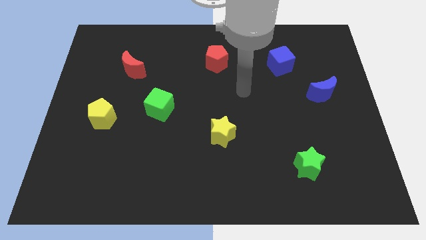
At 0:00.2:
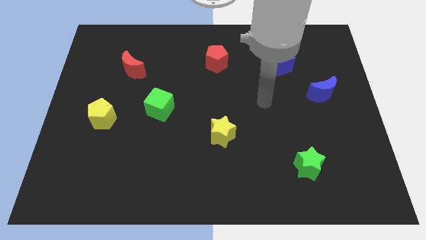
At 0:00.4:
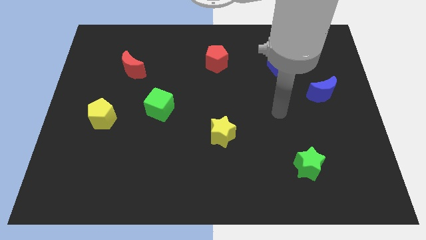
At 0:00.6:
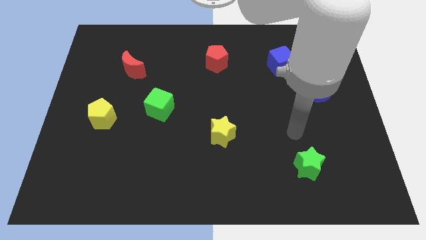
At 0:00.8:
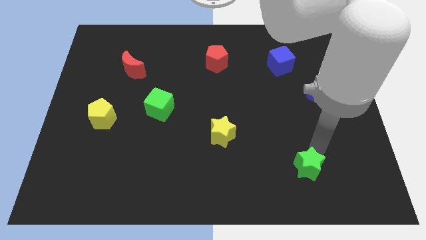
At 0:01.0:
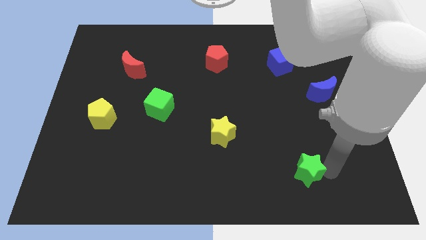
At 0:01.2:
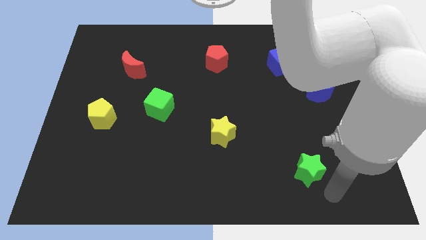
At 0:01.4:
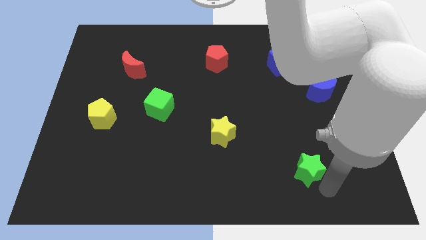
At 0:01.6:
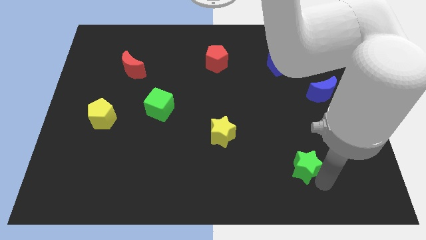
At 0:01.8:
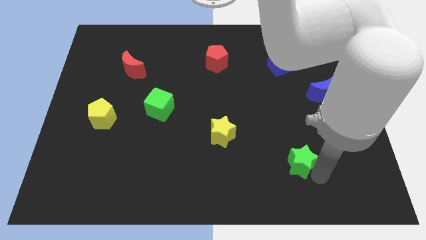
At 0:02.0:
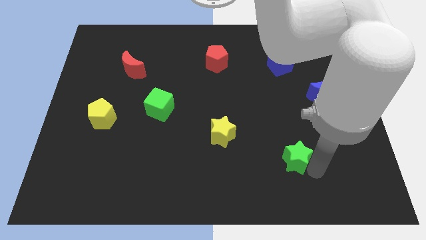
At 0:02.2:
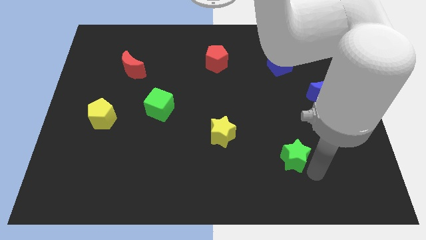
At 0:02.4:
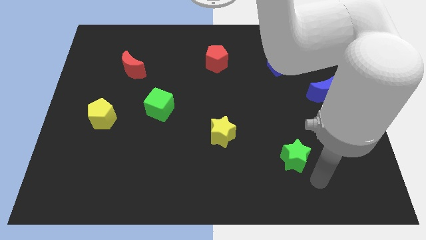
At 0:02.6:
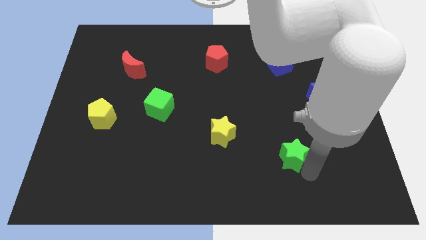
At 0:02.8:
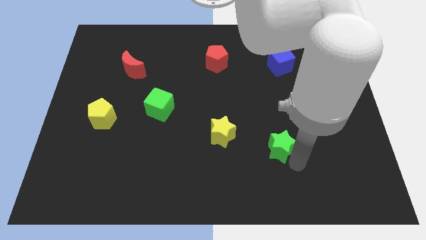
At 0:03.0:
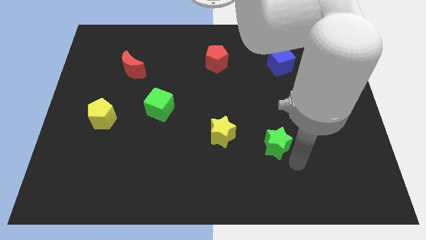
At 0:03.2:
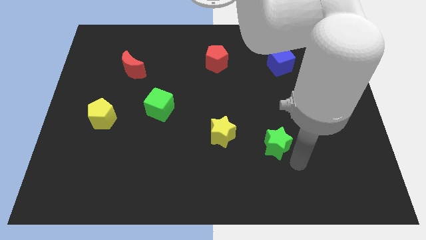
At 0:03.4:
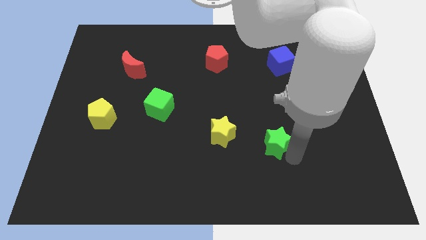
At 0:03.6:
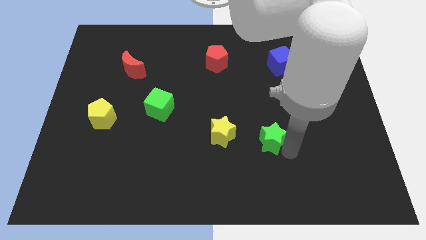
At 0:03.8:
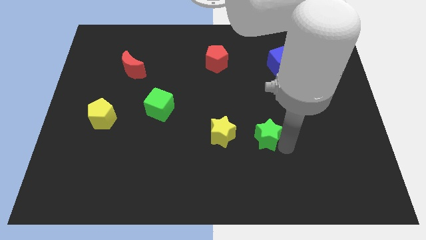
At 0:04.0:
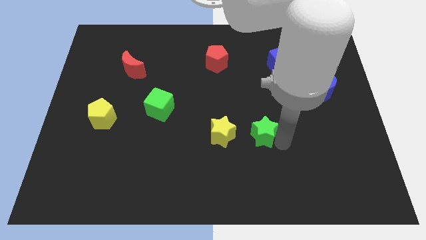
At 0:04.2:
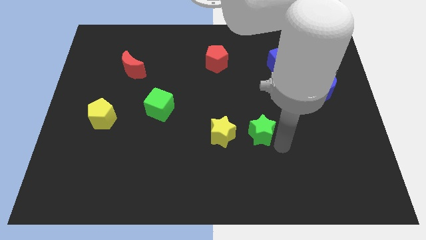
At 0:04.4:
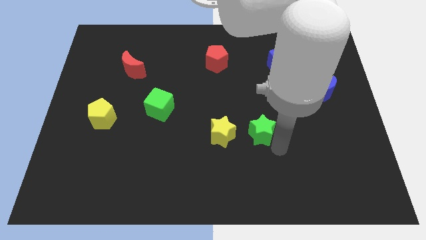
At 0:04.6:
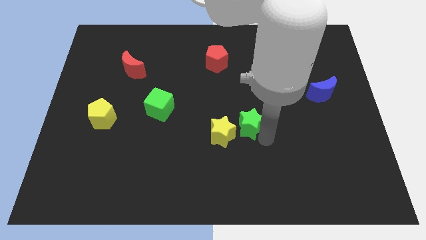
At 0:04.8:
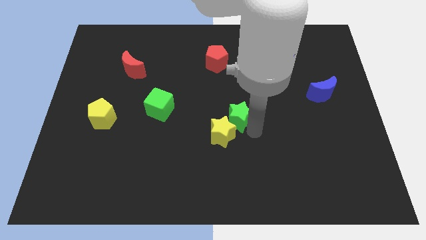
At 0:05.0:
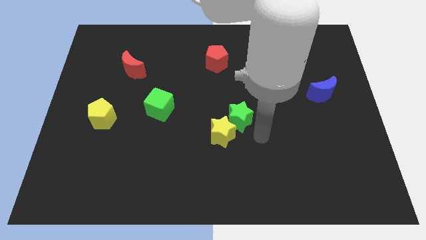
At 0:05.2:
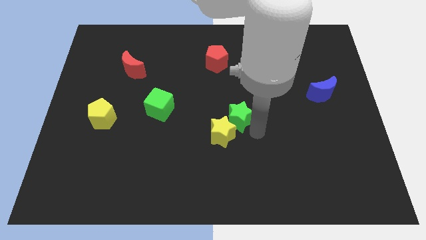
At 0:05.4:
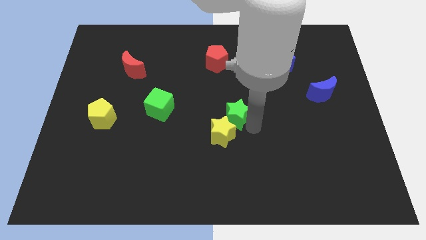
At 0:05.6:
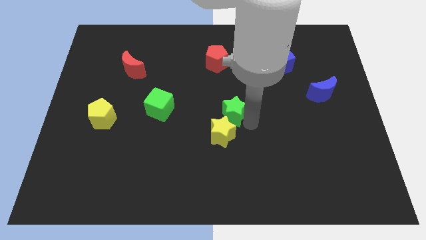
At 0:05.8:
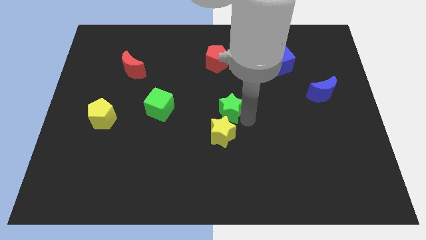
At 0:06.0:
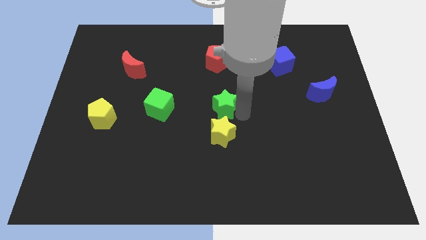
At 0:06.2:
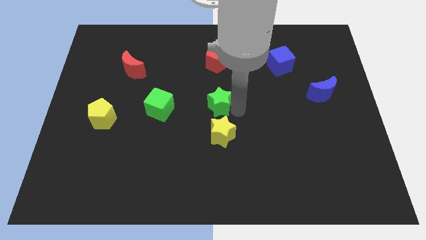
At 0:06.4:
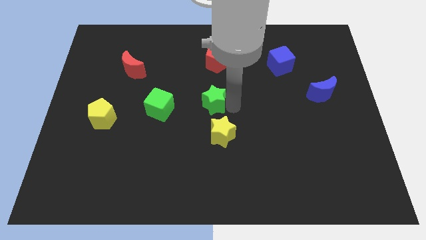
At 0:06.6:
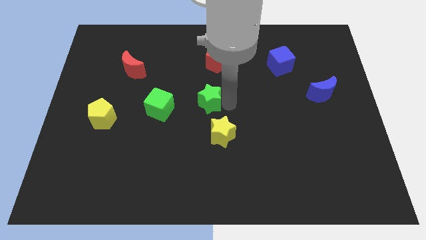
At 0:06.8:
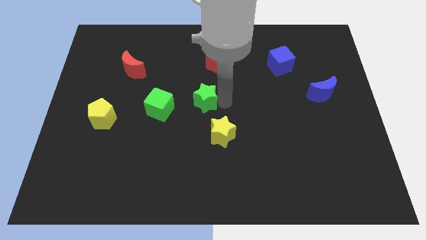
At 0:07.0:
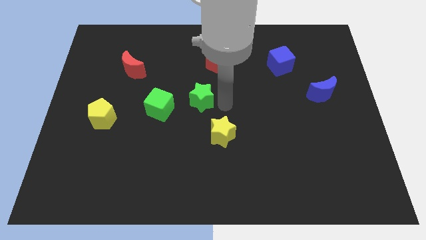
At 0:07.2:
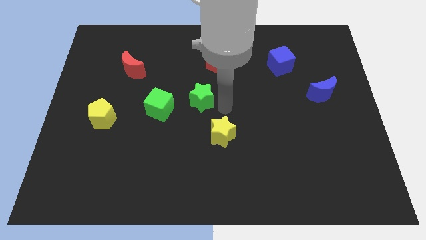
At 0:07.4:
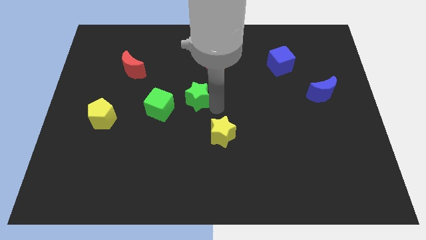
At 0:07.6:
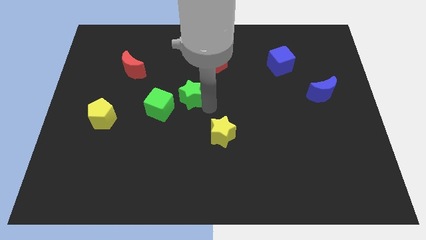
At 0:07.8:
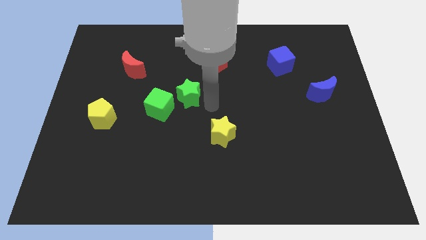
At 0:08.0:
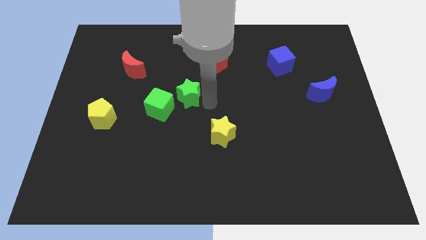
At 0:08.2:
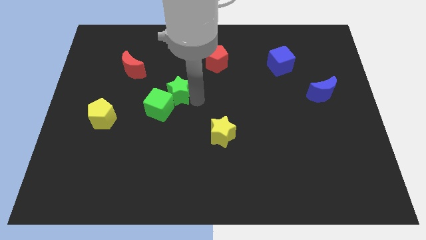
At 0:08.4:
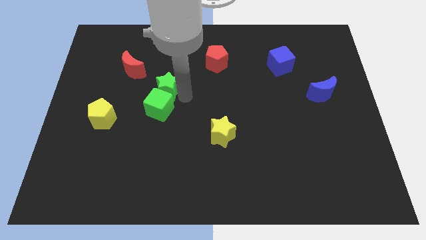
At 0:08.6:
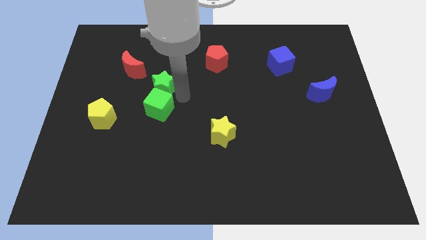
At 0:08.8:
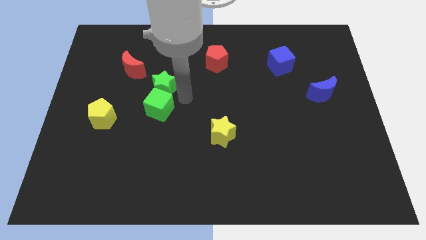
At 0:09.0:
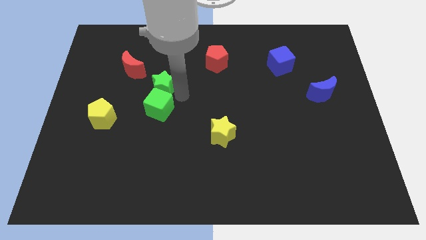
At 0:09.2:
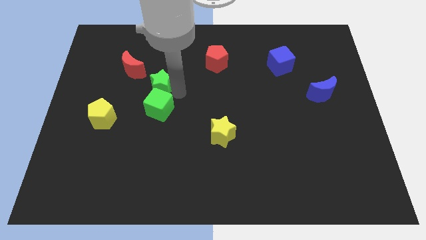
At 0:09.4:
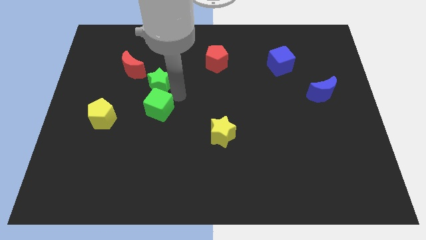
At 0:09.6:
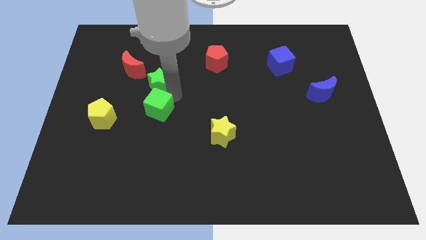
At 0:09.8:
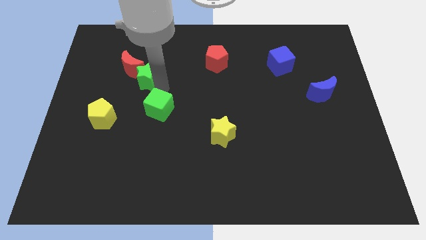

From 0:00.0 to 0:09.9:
move the green star to the red moon

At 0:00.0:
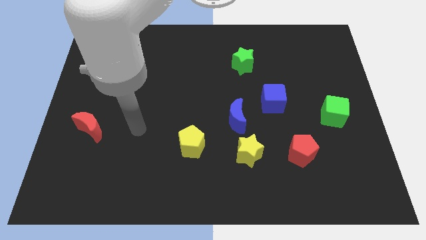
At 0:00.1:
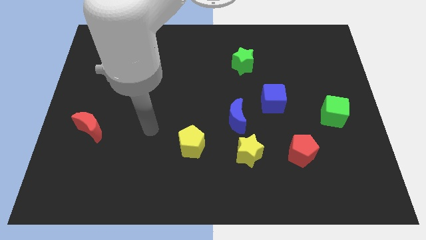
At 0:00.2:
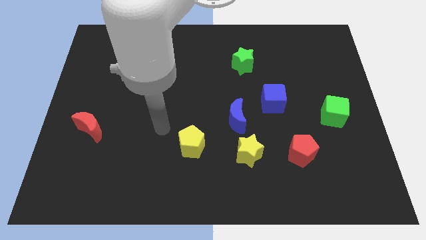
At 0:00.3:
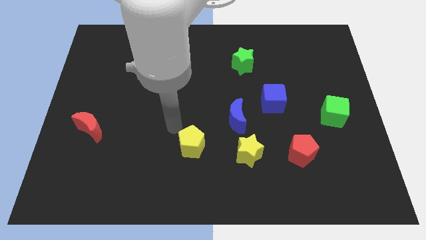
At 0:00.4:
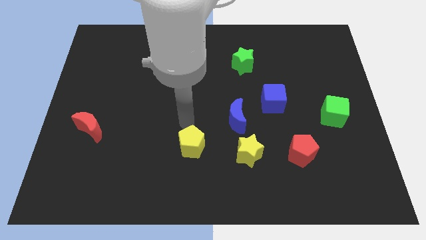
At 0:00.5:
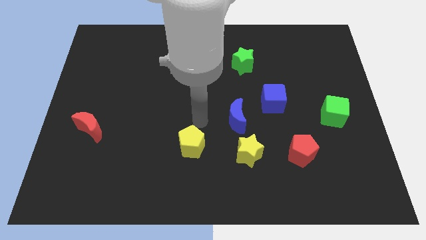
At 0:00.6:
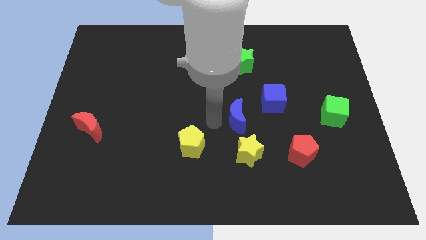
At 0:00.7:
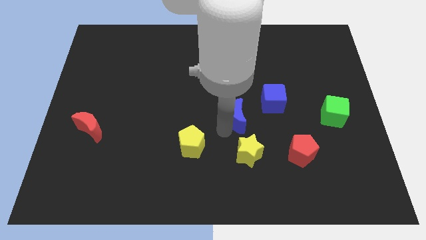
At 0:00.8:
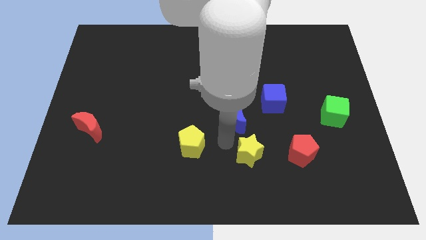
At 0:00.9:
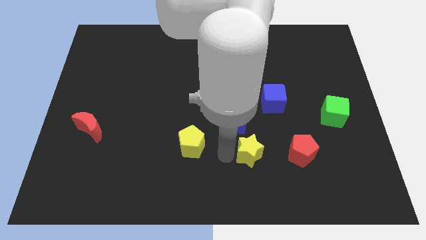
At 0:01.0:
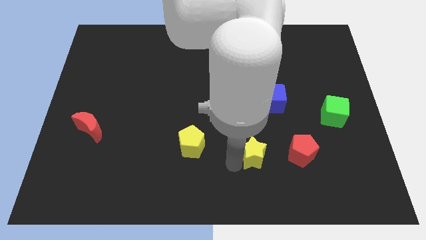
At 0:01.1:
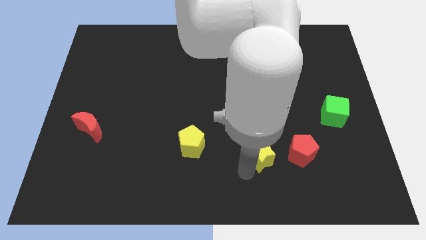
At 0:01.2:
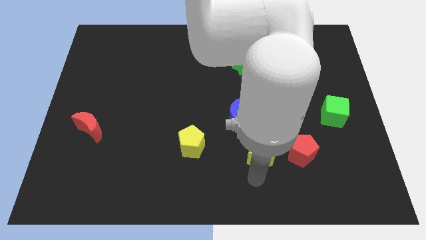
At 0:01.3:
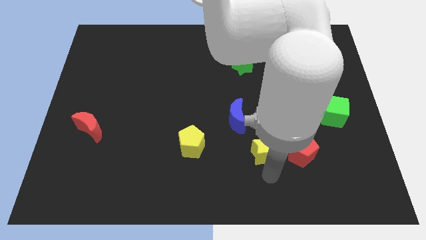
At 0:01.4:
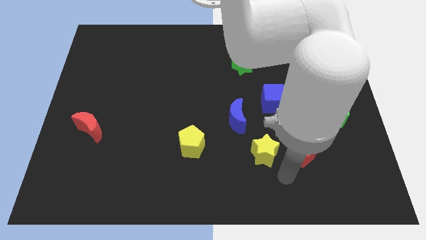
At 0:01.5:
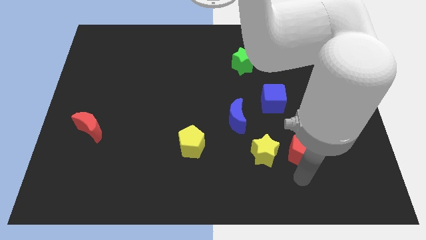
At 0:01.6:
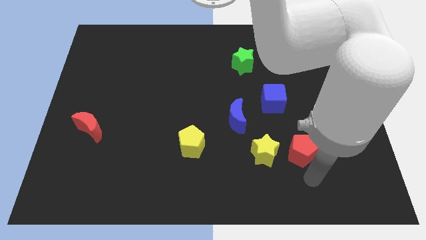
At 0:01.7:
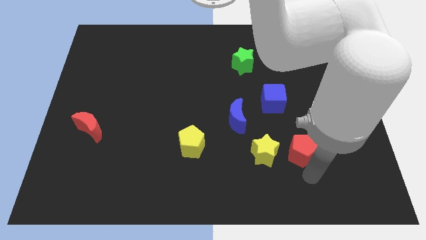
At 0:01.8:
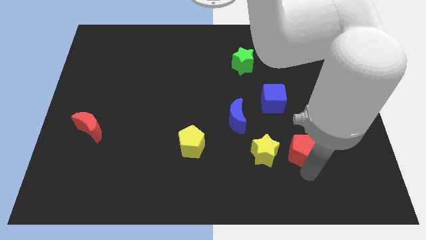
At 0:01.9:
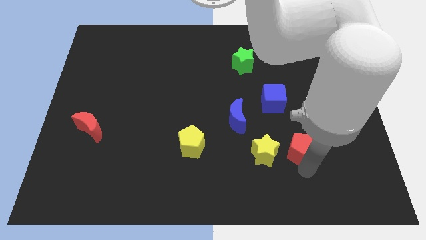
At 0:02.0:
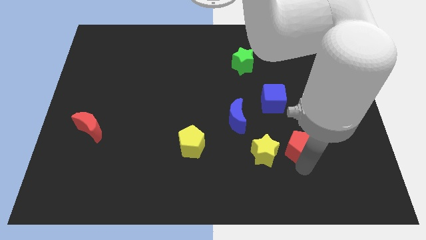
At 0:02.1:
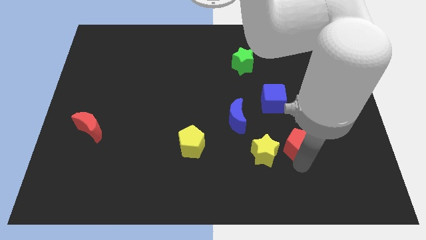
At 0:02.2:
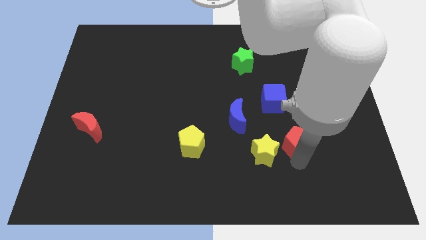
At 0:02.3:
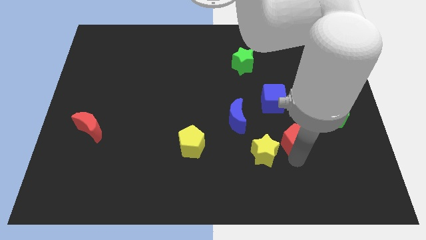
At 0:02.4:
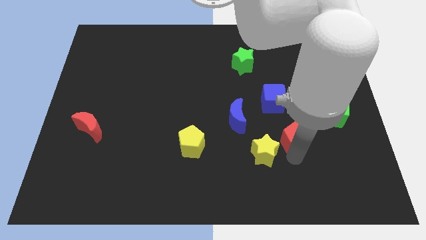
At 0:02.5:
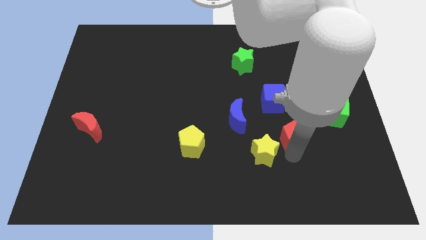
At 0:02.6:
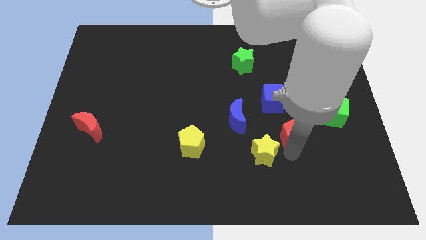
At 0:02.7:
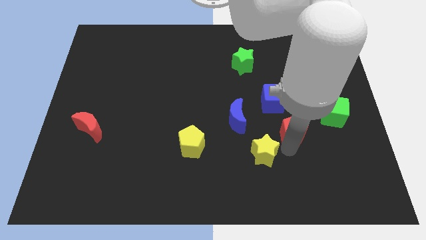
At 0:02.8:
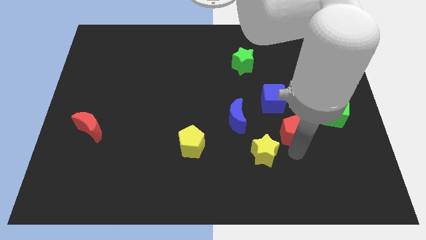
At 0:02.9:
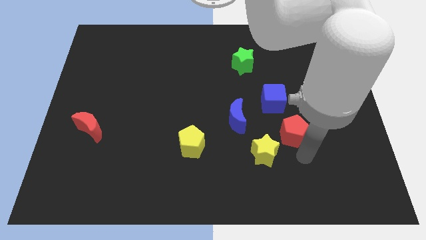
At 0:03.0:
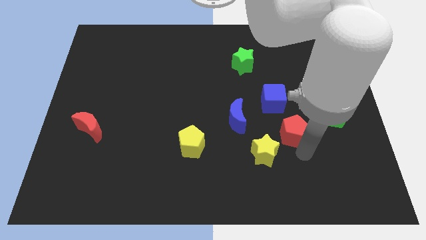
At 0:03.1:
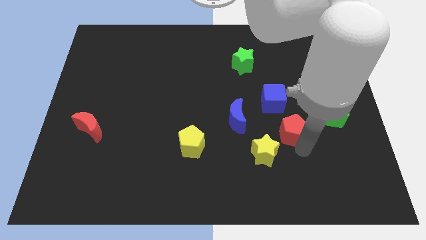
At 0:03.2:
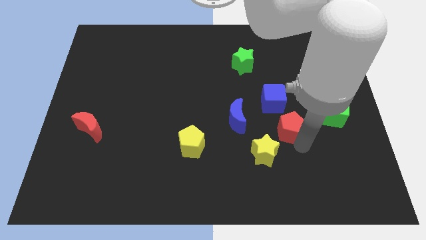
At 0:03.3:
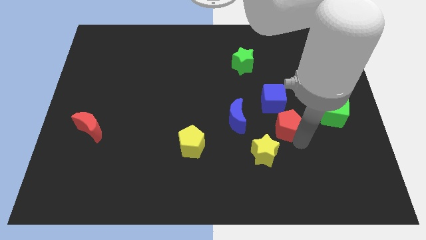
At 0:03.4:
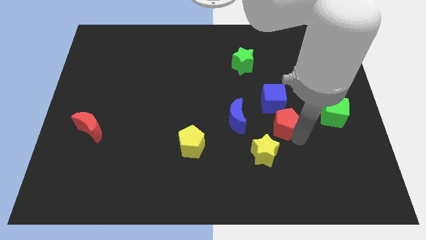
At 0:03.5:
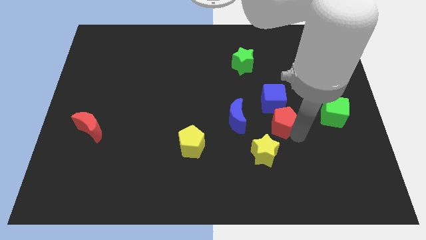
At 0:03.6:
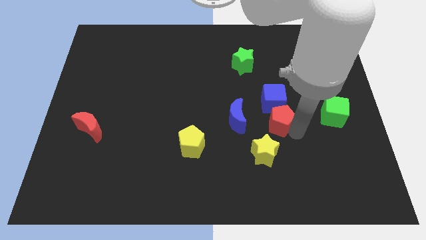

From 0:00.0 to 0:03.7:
slide the red pentagon close to the blue cube
